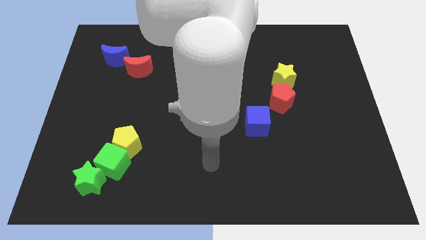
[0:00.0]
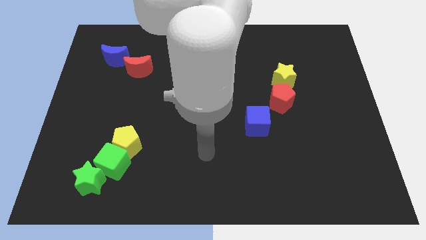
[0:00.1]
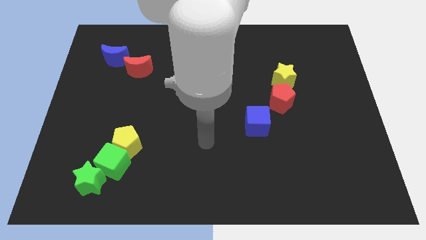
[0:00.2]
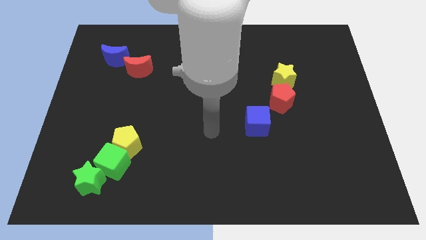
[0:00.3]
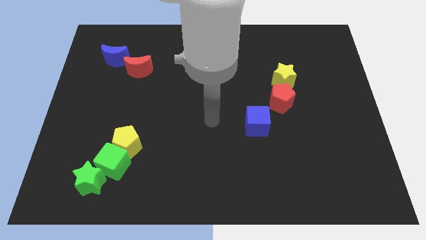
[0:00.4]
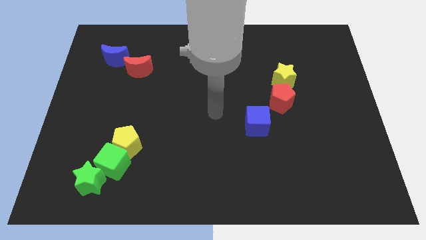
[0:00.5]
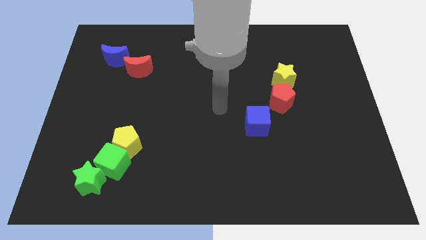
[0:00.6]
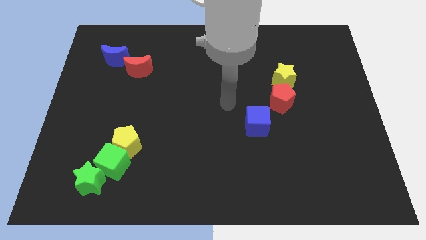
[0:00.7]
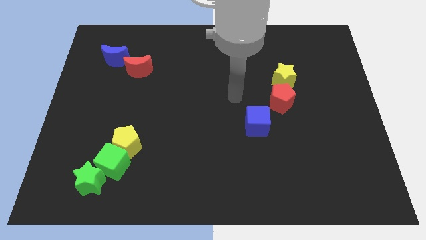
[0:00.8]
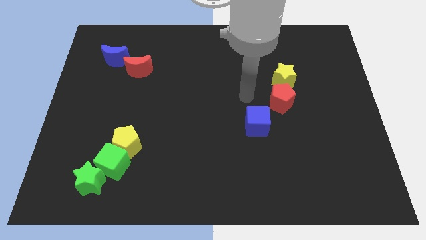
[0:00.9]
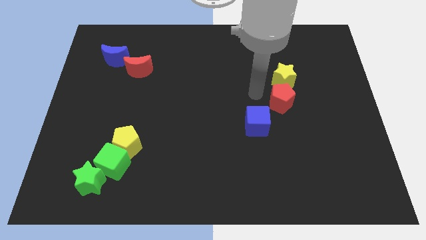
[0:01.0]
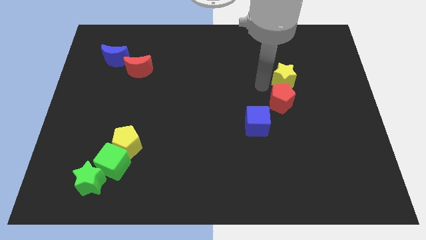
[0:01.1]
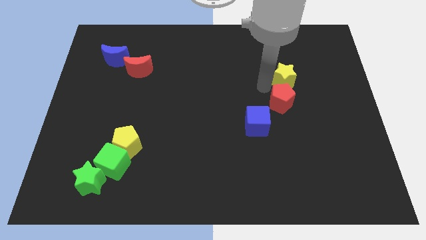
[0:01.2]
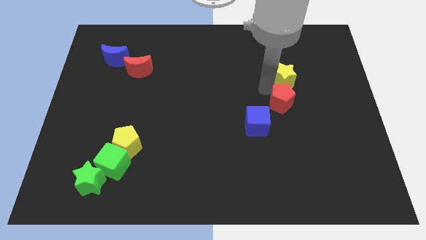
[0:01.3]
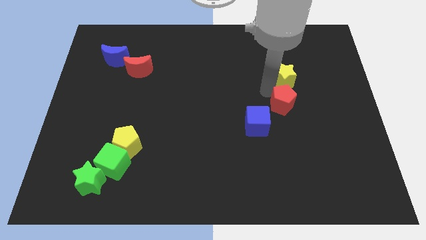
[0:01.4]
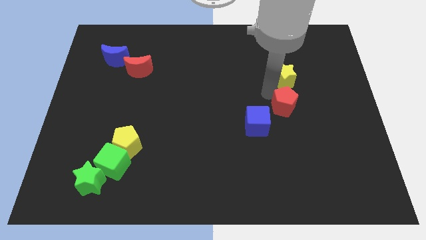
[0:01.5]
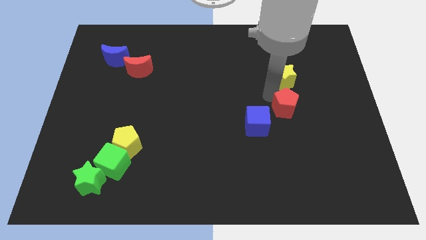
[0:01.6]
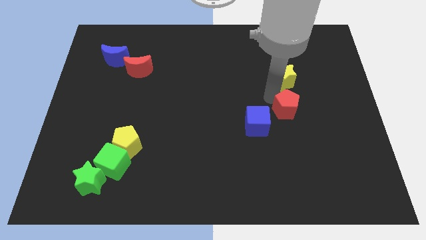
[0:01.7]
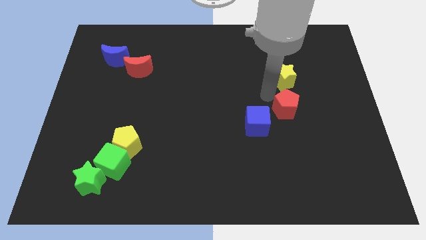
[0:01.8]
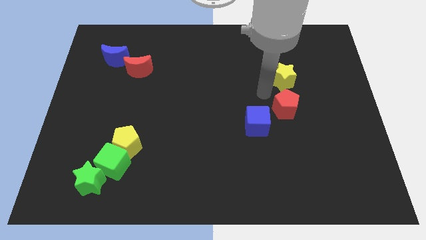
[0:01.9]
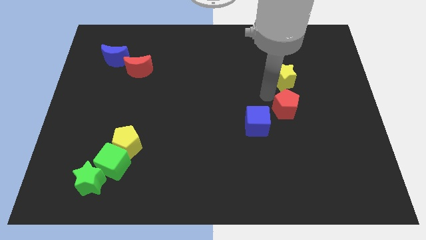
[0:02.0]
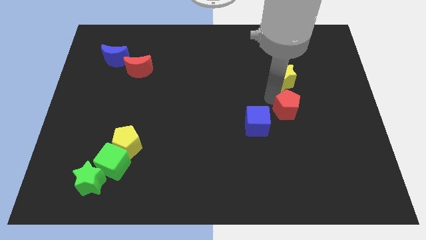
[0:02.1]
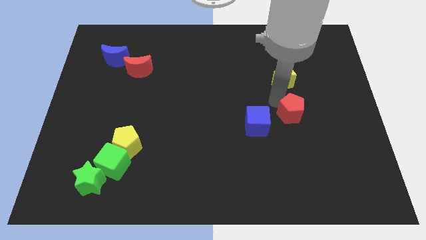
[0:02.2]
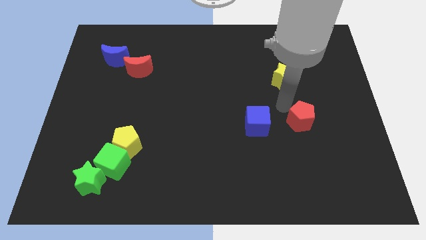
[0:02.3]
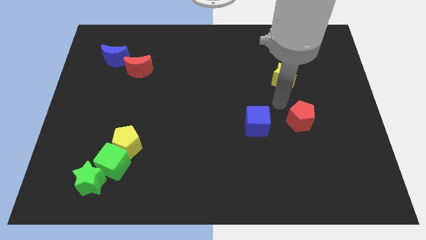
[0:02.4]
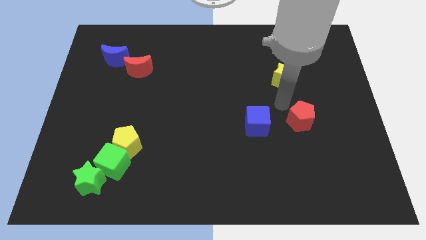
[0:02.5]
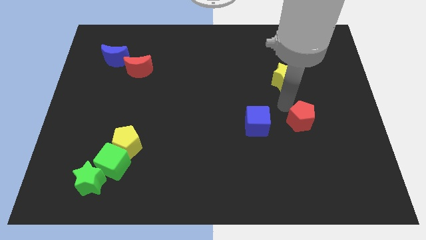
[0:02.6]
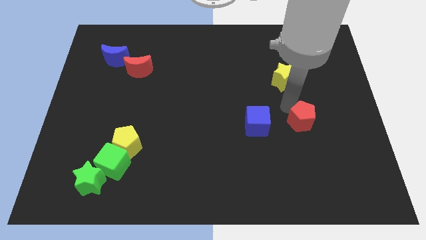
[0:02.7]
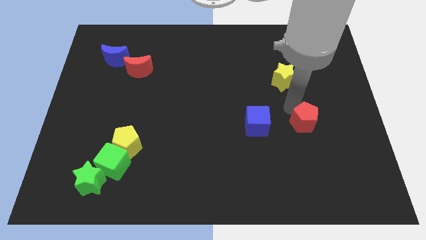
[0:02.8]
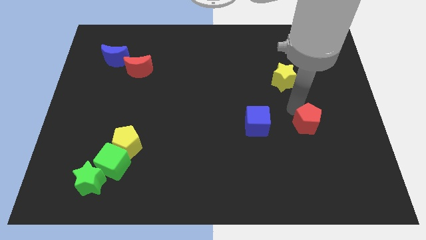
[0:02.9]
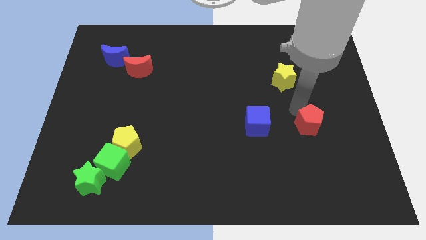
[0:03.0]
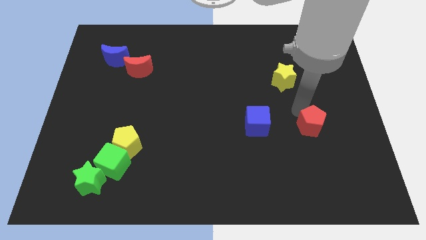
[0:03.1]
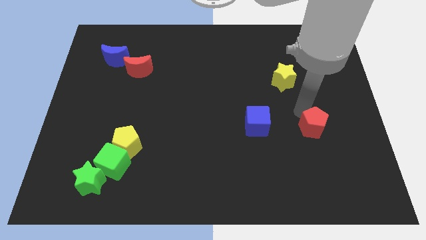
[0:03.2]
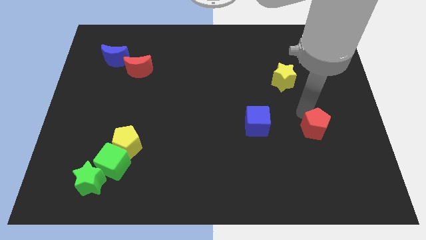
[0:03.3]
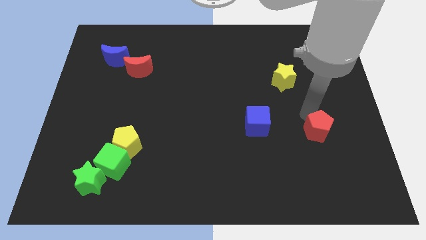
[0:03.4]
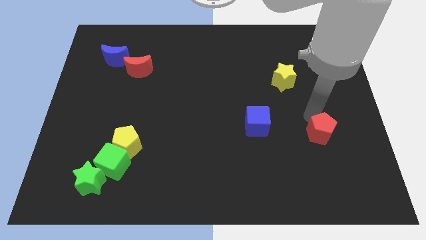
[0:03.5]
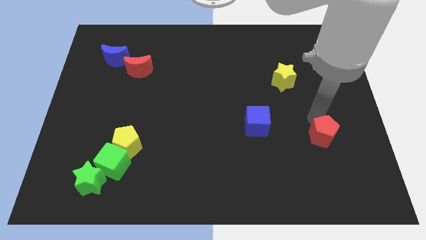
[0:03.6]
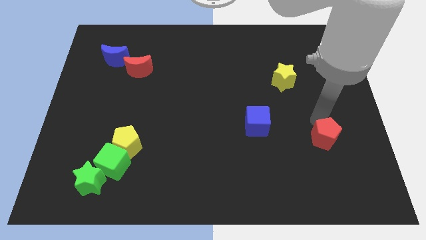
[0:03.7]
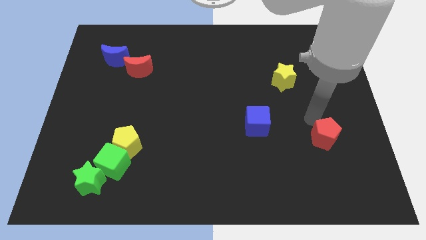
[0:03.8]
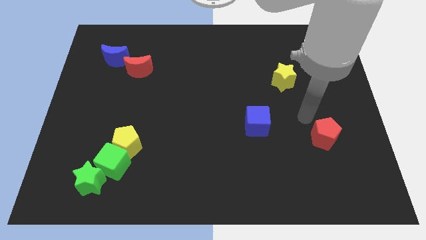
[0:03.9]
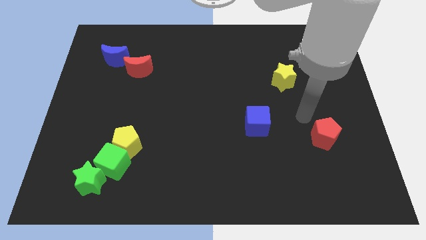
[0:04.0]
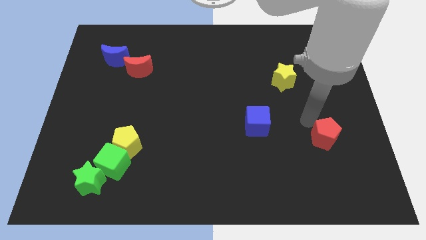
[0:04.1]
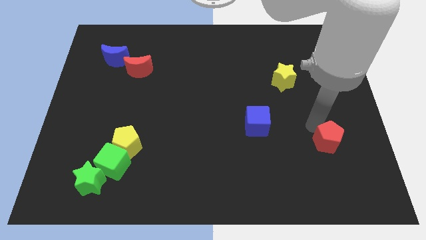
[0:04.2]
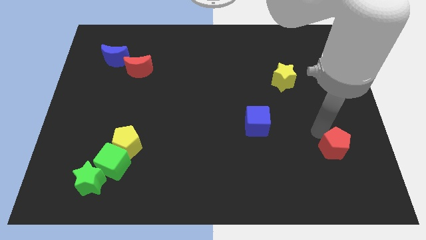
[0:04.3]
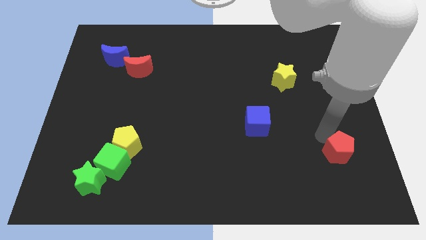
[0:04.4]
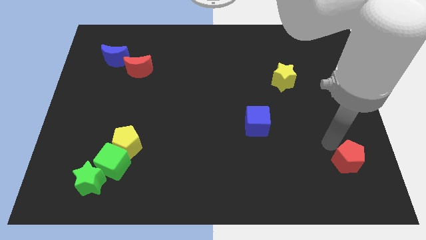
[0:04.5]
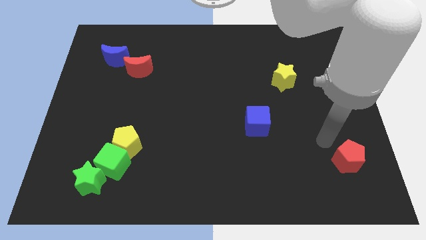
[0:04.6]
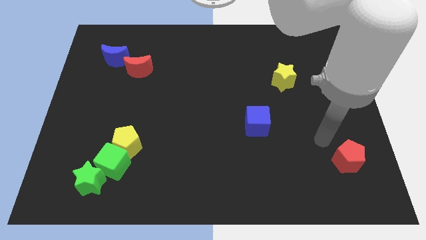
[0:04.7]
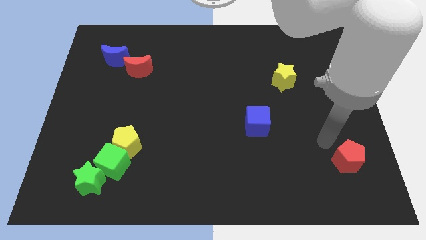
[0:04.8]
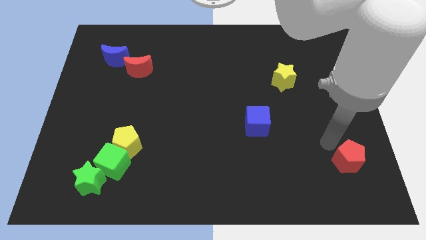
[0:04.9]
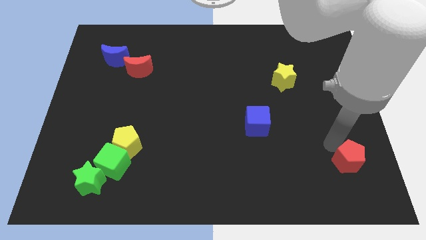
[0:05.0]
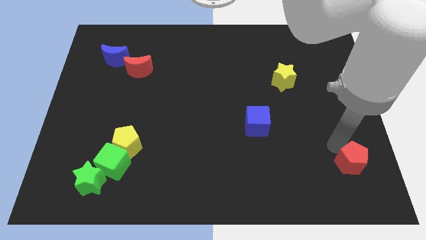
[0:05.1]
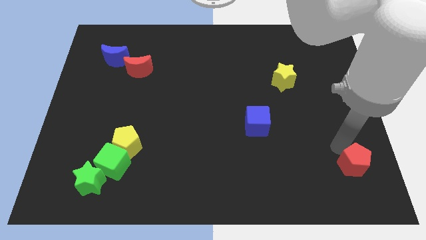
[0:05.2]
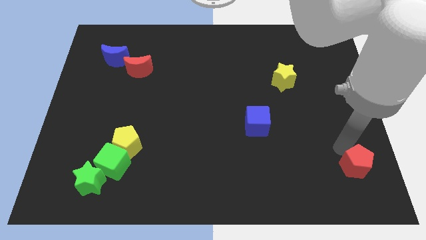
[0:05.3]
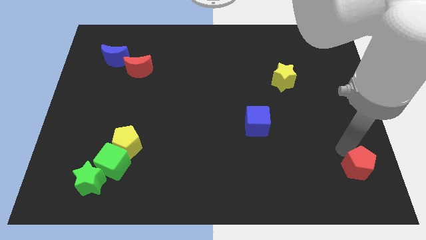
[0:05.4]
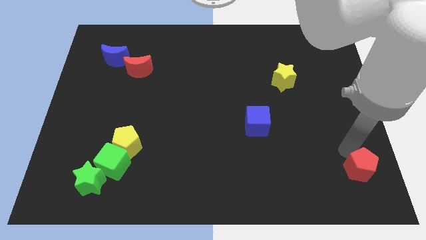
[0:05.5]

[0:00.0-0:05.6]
move the red pentagon to the bottom right corner

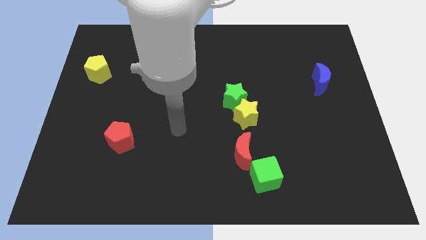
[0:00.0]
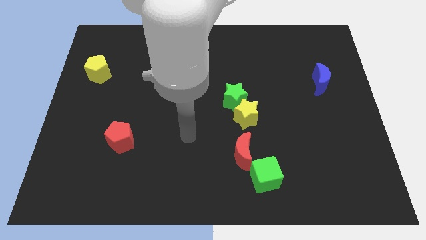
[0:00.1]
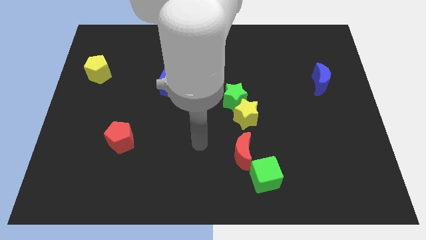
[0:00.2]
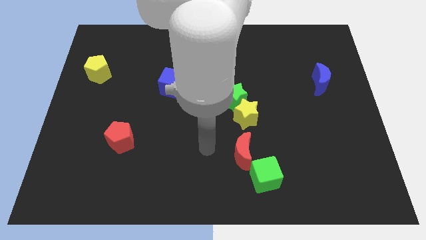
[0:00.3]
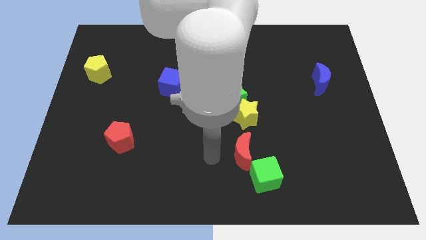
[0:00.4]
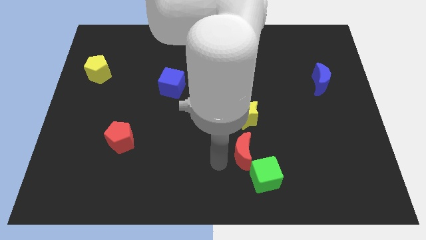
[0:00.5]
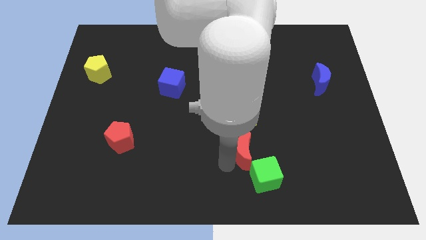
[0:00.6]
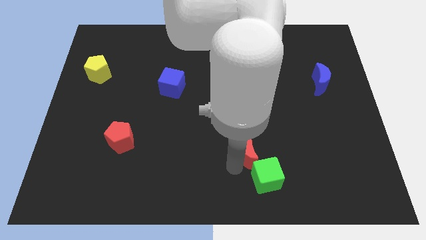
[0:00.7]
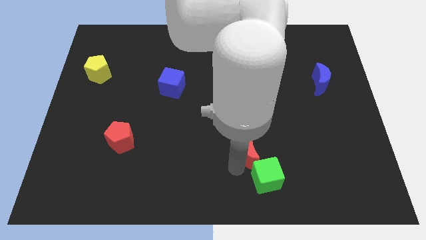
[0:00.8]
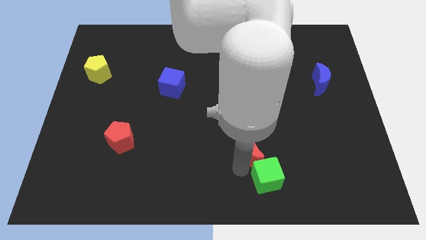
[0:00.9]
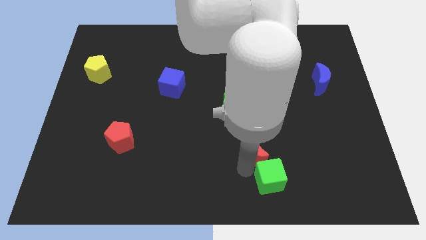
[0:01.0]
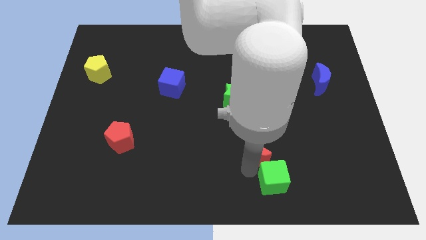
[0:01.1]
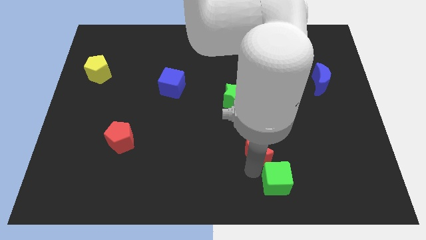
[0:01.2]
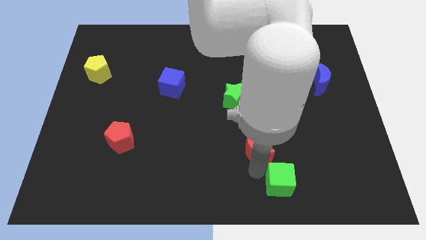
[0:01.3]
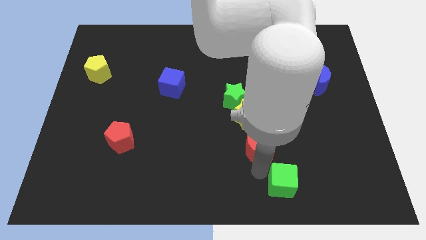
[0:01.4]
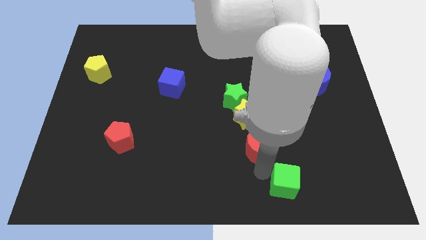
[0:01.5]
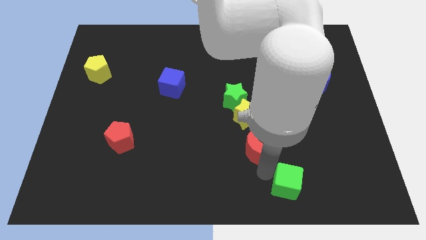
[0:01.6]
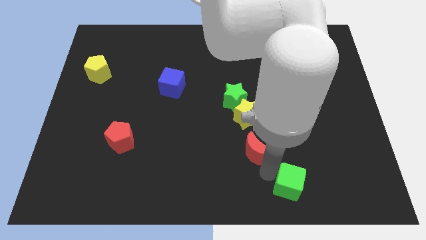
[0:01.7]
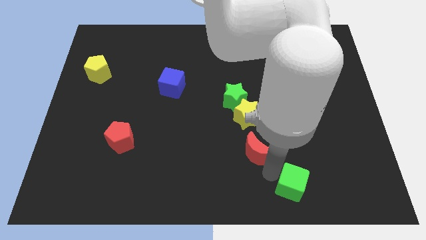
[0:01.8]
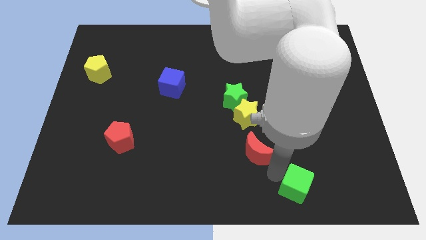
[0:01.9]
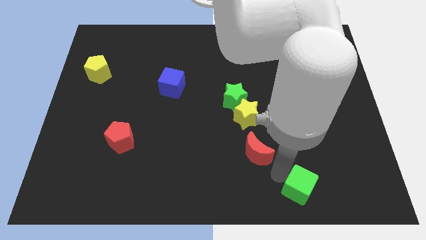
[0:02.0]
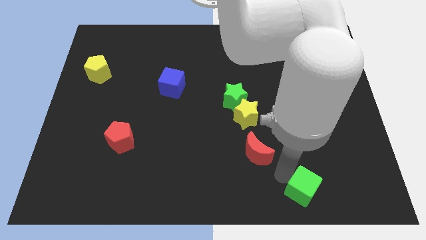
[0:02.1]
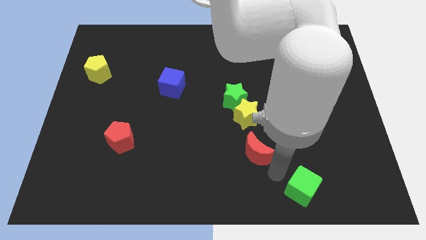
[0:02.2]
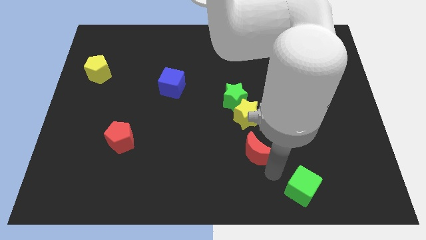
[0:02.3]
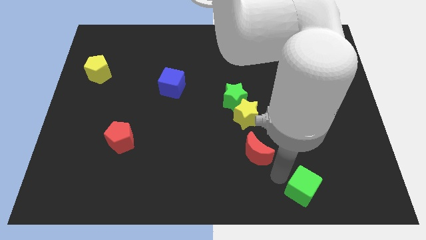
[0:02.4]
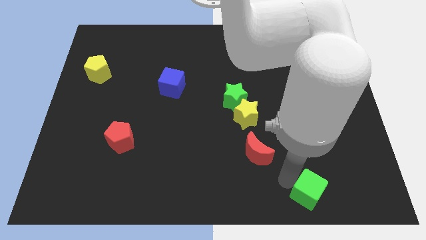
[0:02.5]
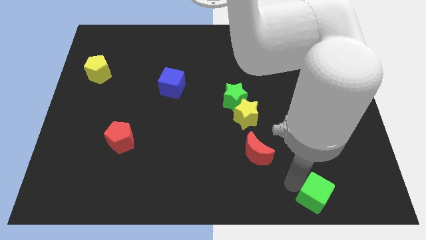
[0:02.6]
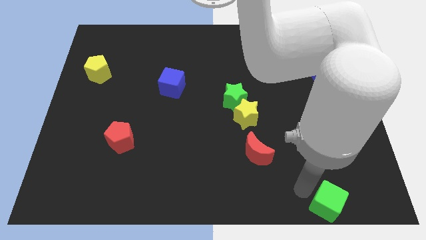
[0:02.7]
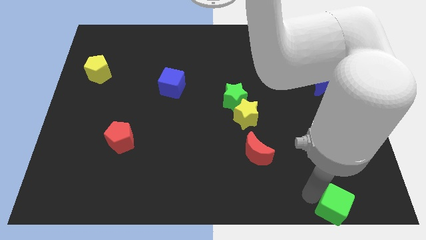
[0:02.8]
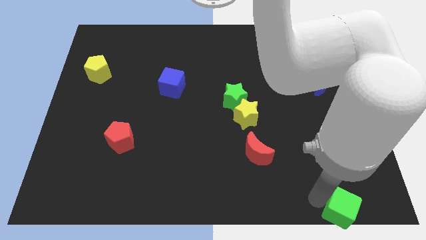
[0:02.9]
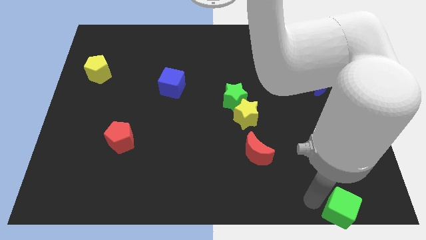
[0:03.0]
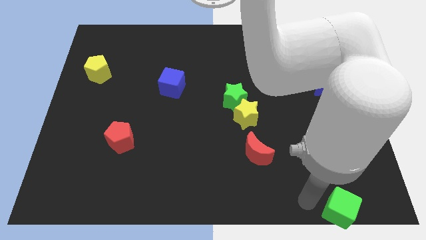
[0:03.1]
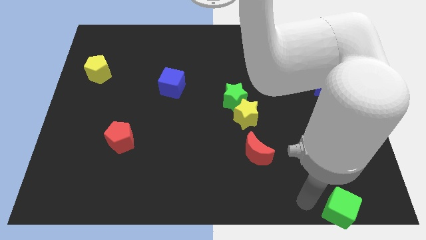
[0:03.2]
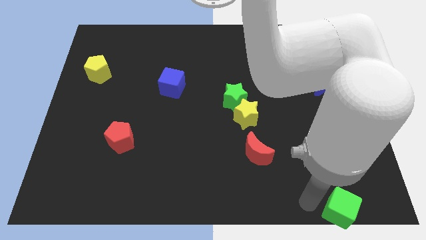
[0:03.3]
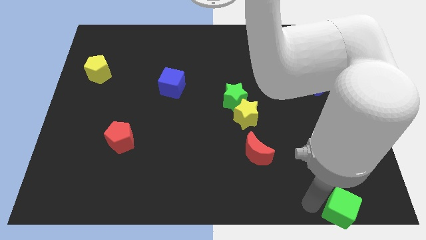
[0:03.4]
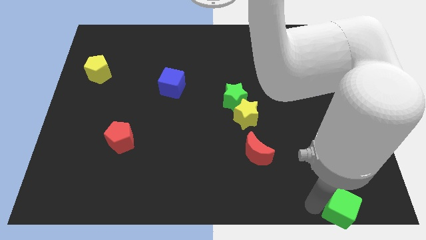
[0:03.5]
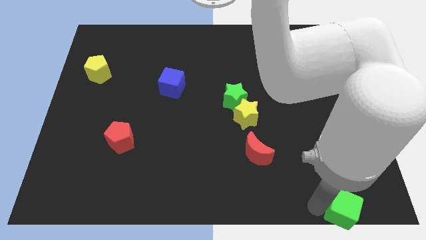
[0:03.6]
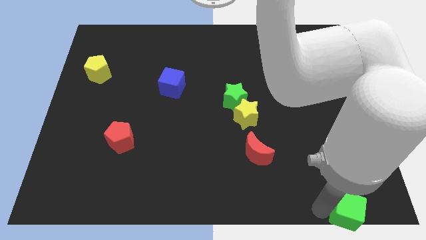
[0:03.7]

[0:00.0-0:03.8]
push the green cube to the bottom right of the board
